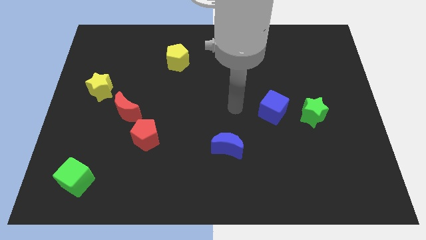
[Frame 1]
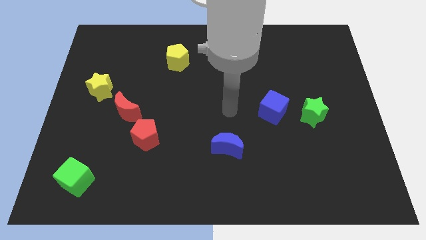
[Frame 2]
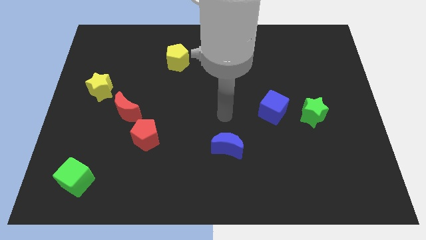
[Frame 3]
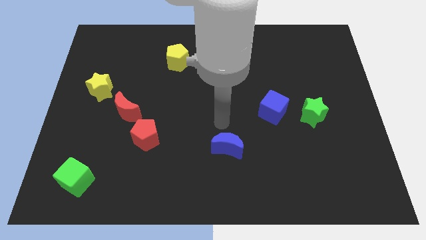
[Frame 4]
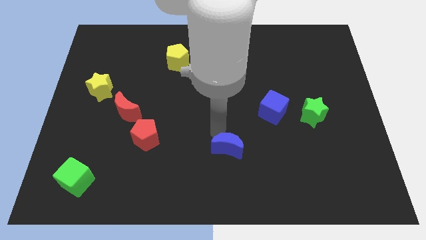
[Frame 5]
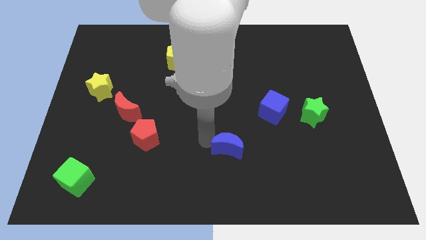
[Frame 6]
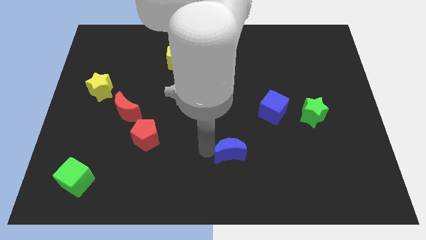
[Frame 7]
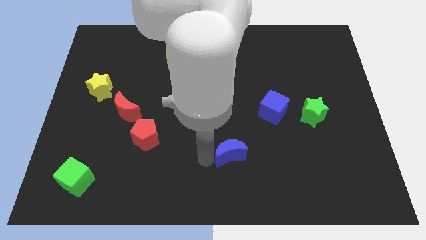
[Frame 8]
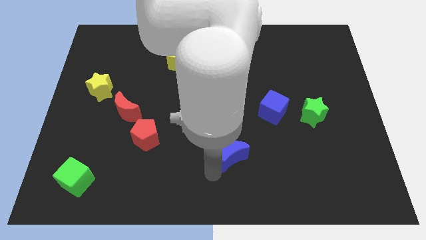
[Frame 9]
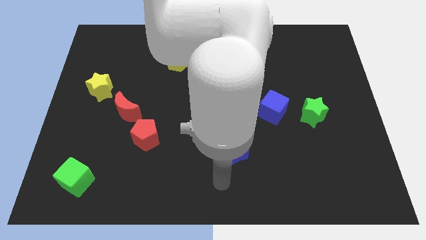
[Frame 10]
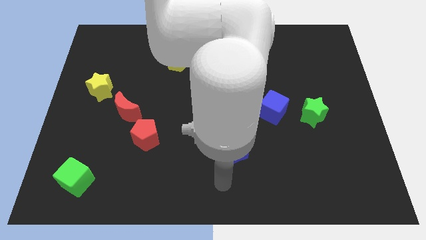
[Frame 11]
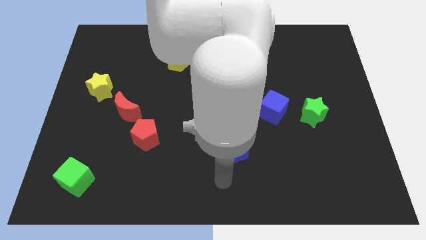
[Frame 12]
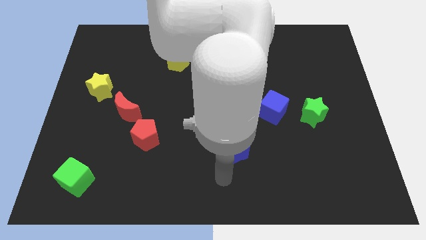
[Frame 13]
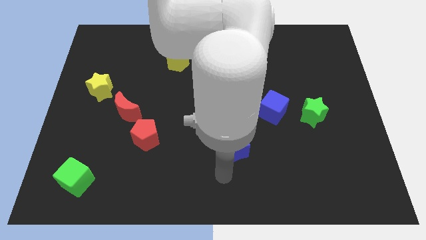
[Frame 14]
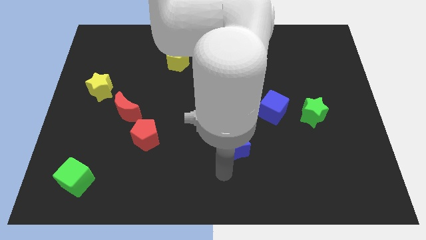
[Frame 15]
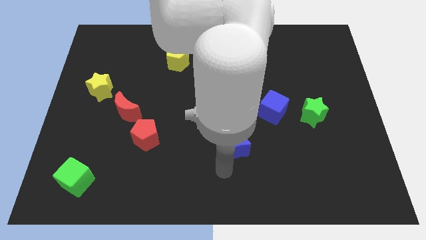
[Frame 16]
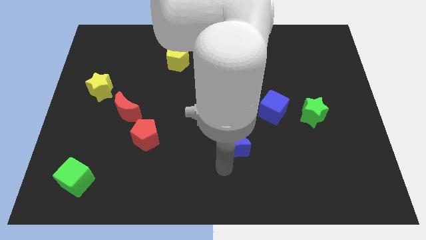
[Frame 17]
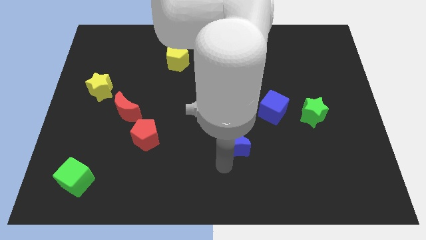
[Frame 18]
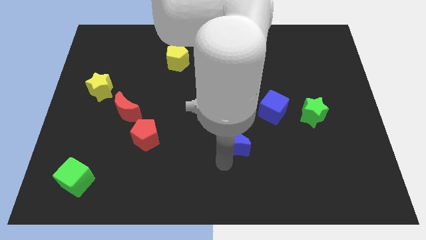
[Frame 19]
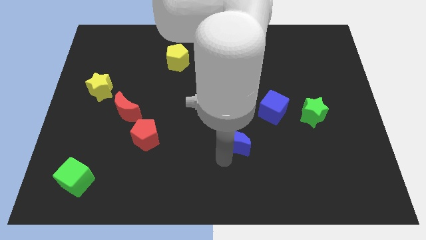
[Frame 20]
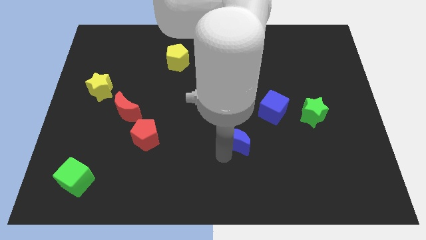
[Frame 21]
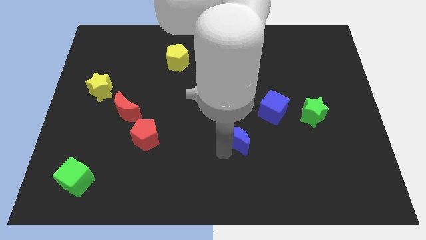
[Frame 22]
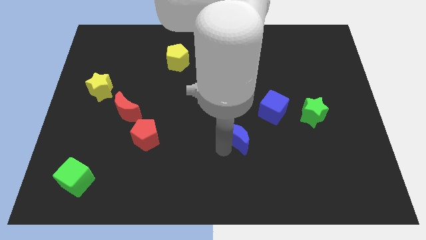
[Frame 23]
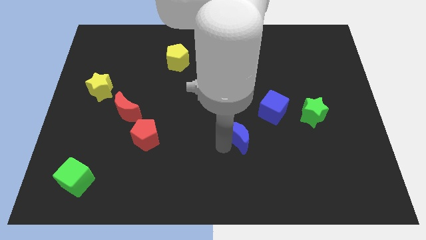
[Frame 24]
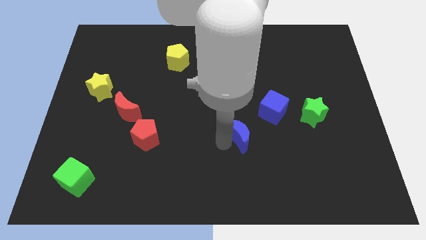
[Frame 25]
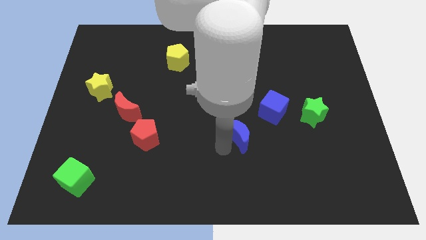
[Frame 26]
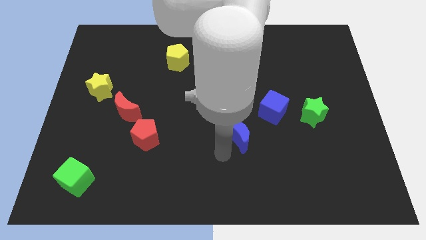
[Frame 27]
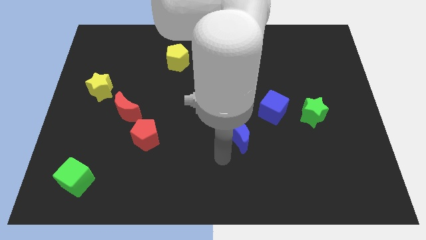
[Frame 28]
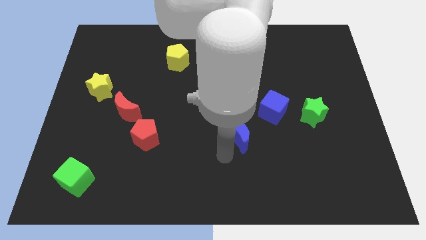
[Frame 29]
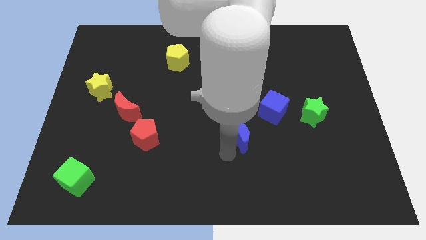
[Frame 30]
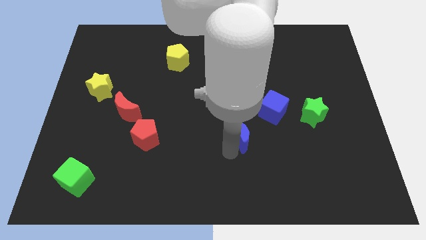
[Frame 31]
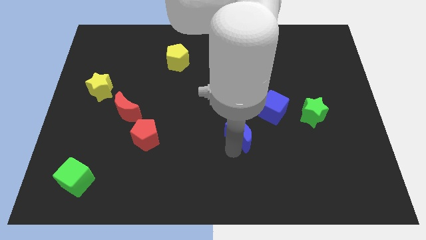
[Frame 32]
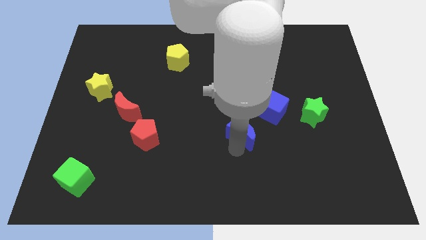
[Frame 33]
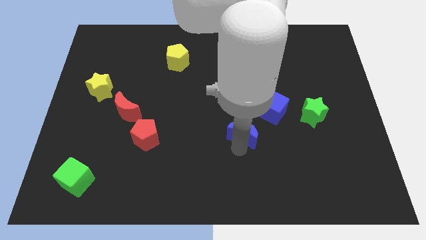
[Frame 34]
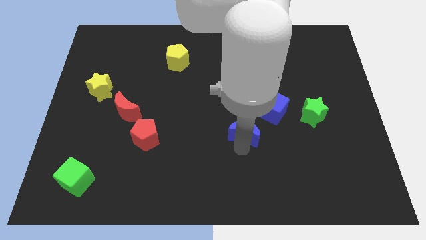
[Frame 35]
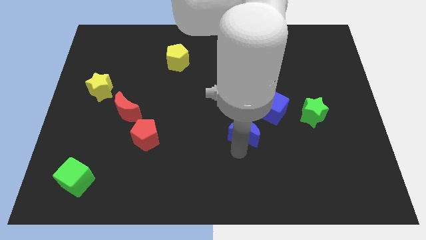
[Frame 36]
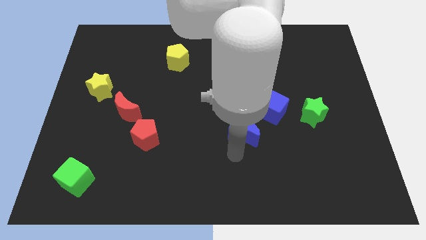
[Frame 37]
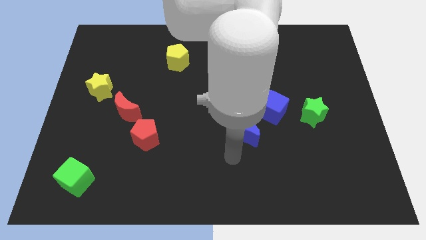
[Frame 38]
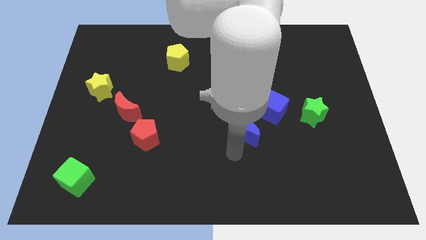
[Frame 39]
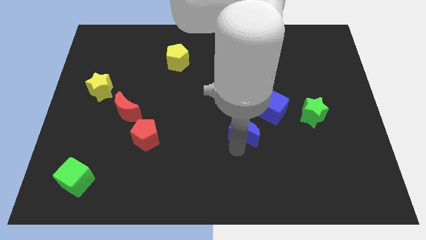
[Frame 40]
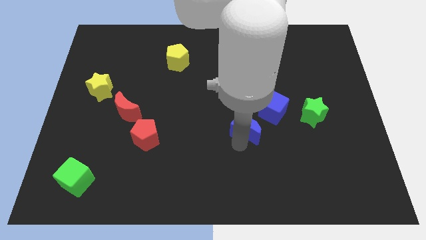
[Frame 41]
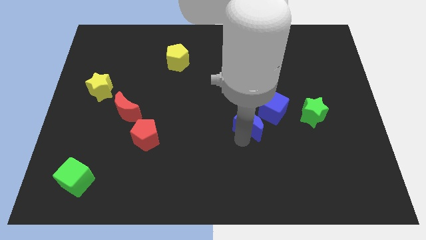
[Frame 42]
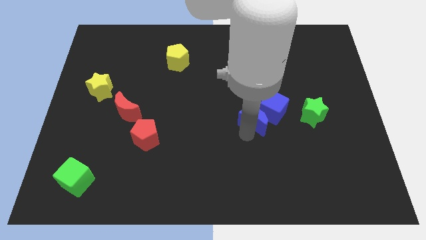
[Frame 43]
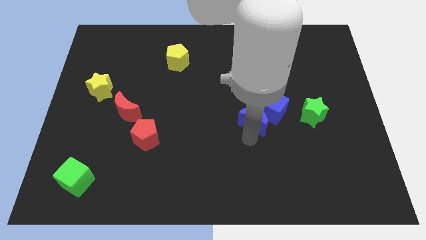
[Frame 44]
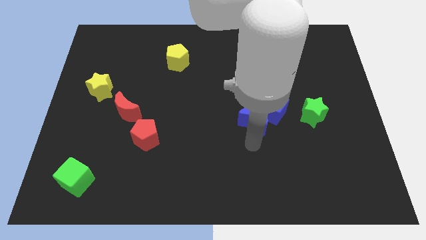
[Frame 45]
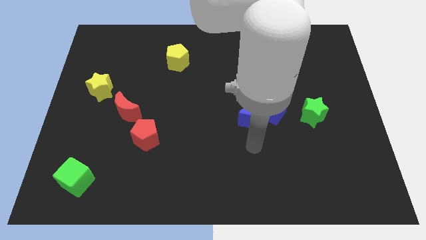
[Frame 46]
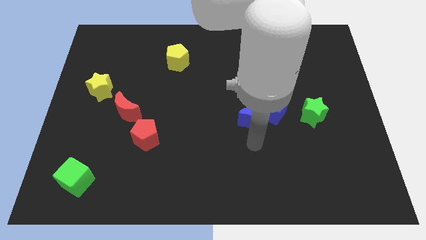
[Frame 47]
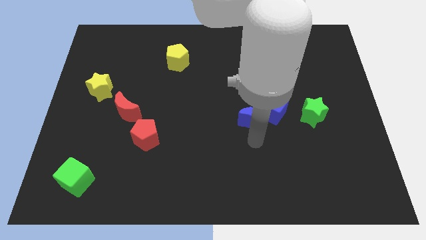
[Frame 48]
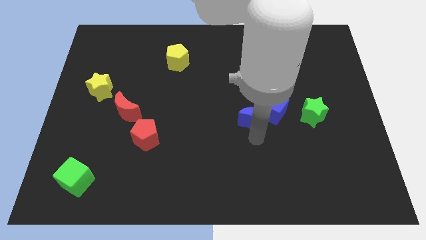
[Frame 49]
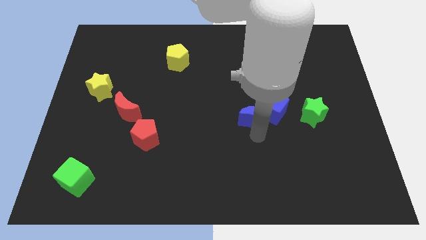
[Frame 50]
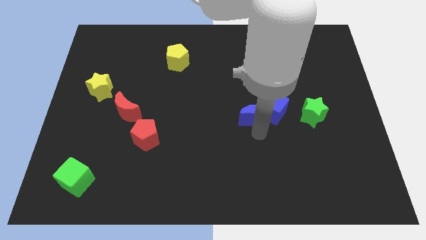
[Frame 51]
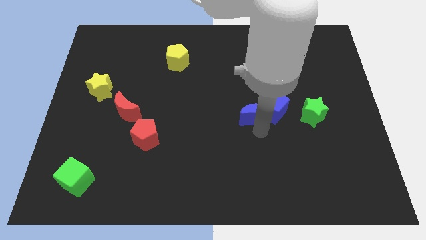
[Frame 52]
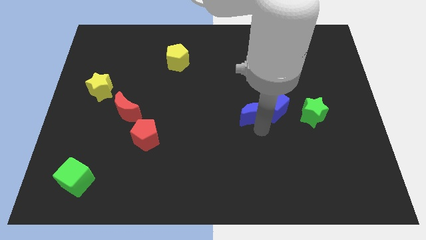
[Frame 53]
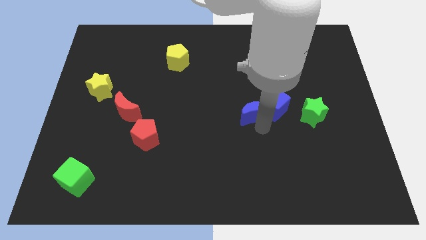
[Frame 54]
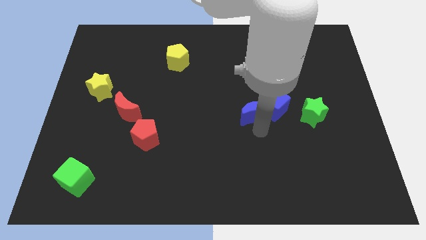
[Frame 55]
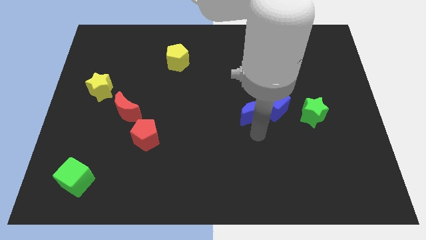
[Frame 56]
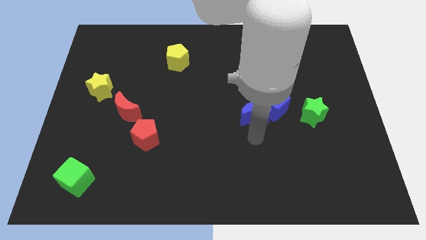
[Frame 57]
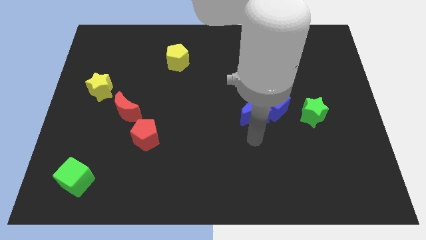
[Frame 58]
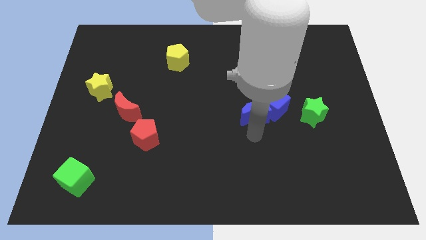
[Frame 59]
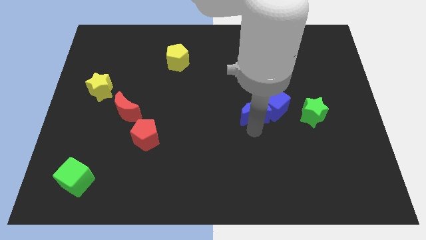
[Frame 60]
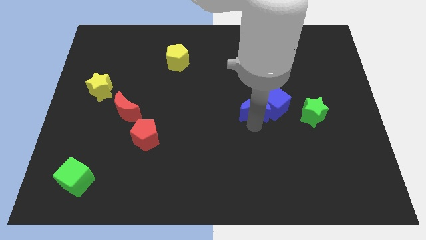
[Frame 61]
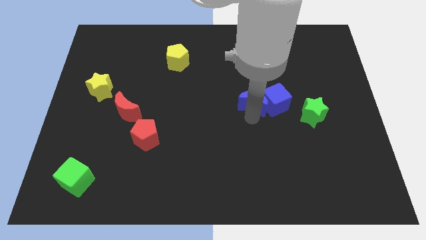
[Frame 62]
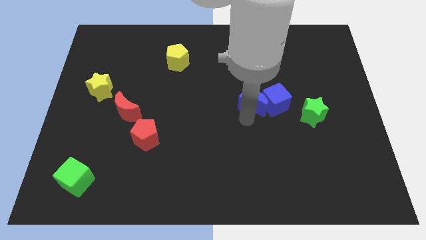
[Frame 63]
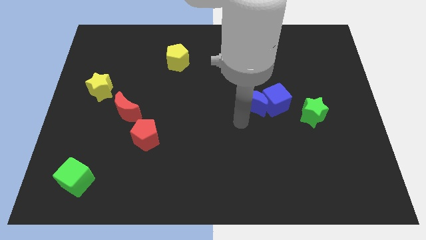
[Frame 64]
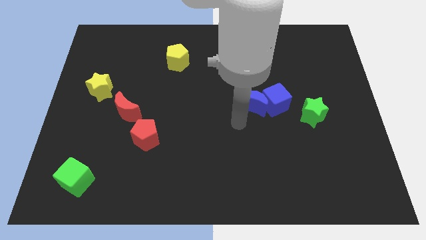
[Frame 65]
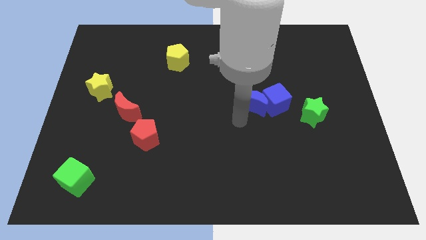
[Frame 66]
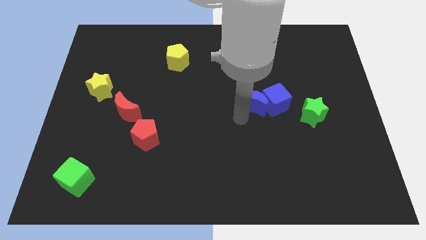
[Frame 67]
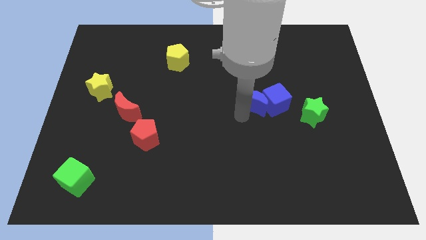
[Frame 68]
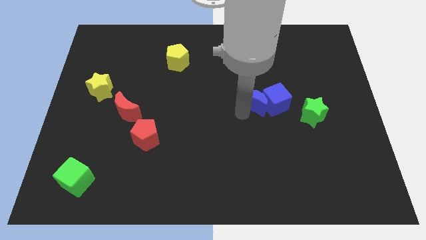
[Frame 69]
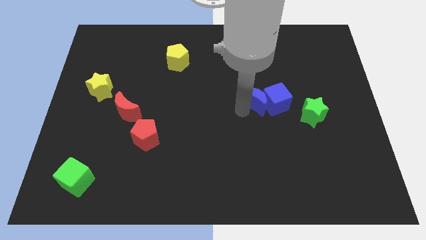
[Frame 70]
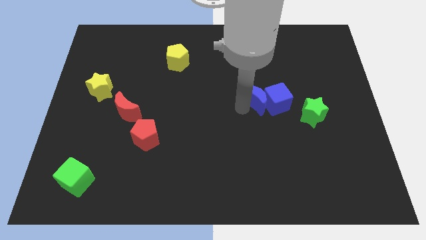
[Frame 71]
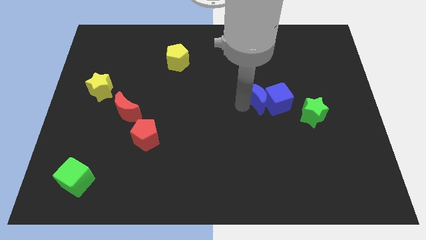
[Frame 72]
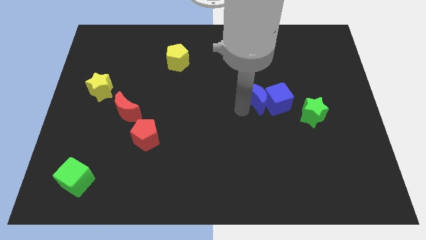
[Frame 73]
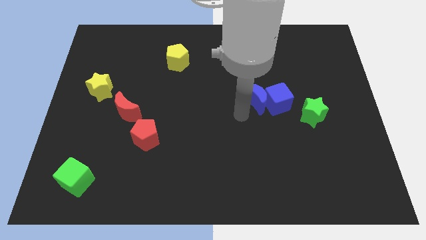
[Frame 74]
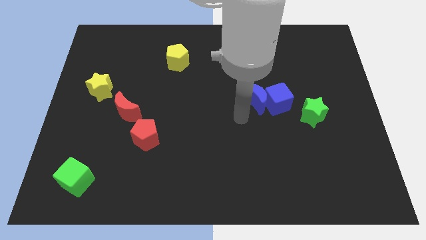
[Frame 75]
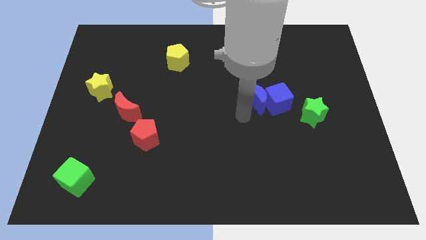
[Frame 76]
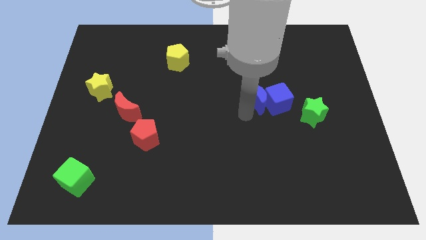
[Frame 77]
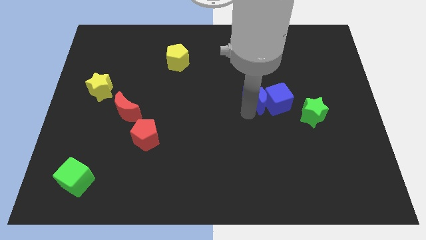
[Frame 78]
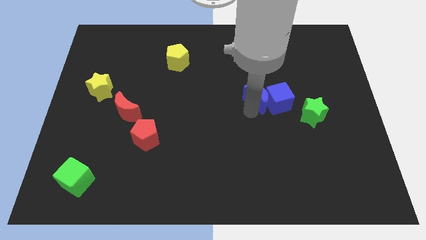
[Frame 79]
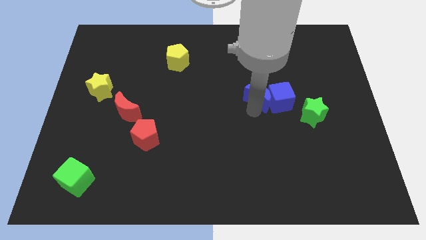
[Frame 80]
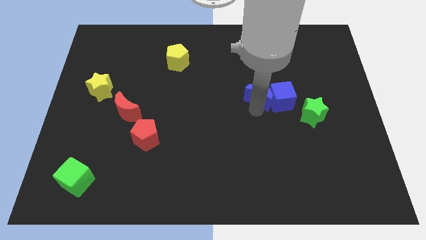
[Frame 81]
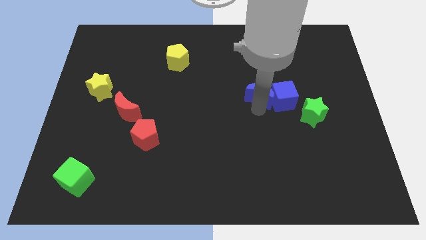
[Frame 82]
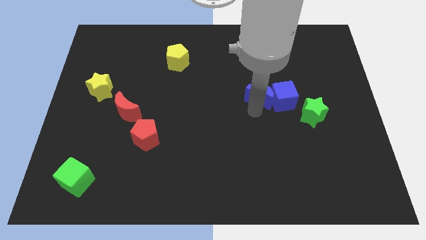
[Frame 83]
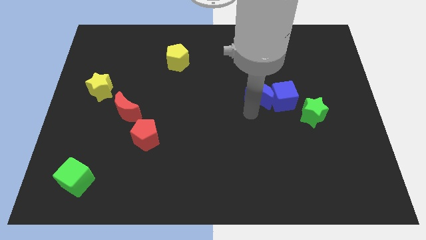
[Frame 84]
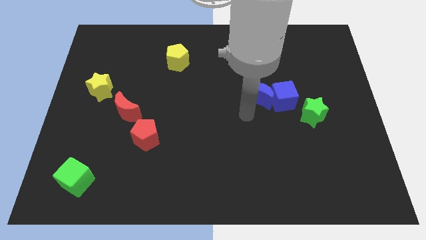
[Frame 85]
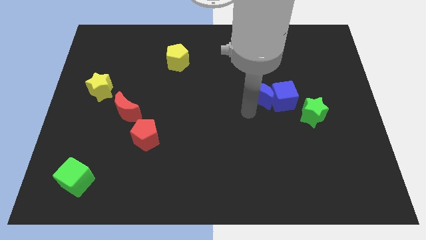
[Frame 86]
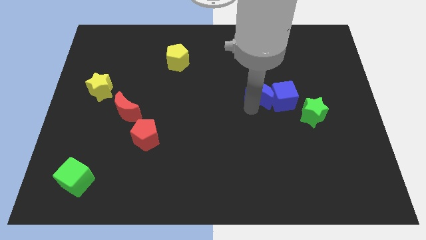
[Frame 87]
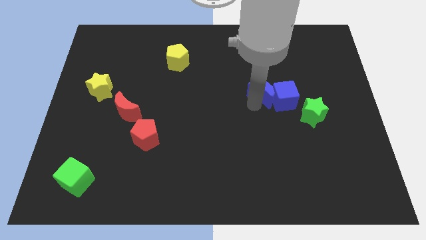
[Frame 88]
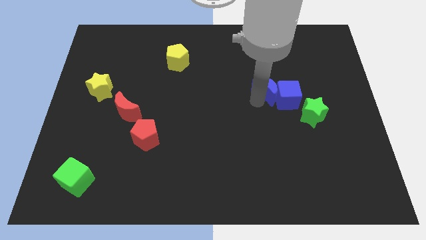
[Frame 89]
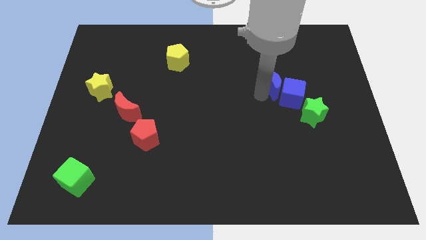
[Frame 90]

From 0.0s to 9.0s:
move the blue moon up and to the right diagonally
